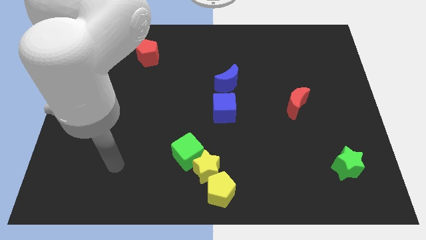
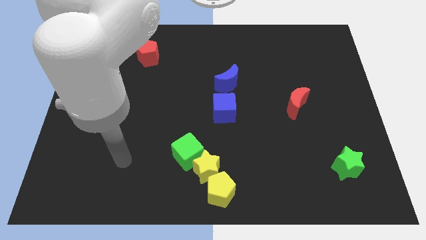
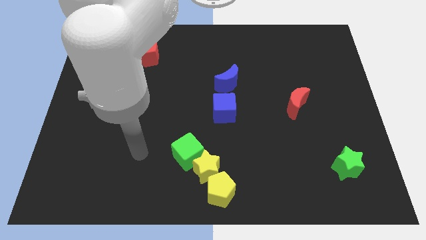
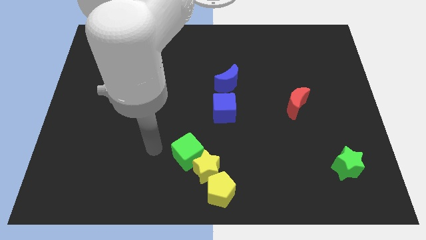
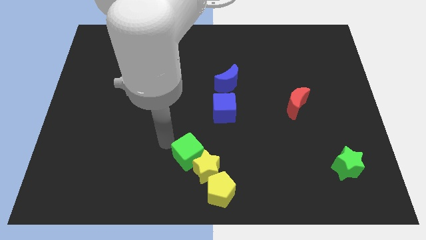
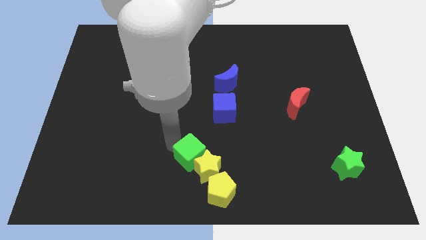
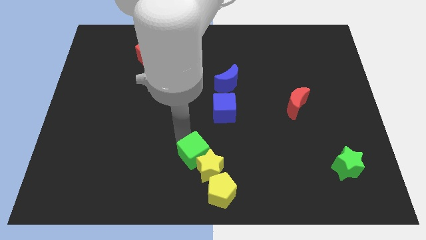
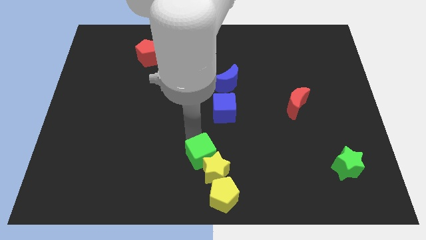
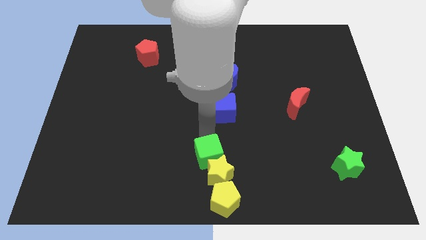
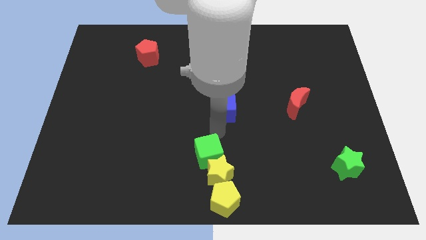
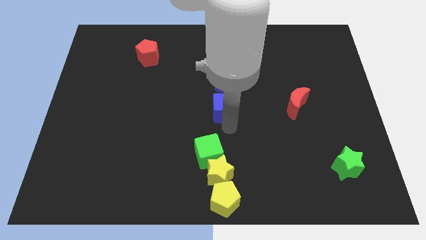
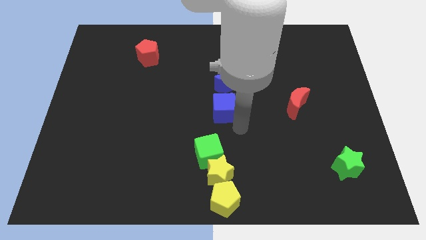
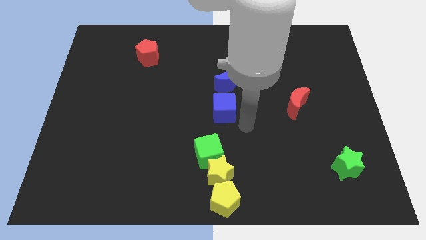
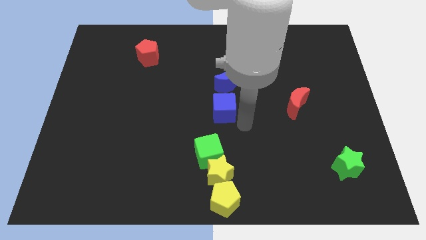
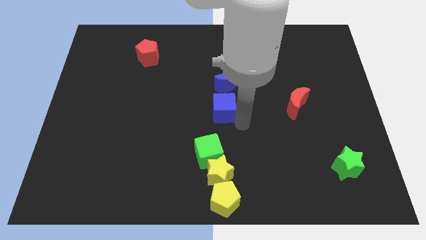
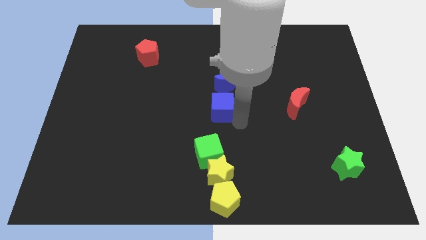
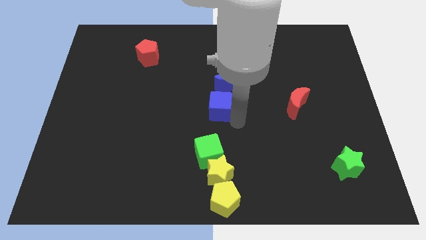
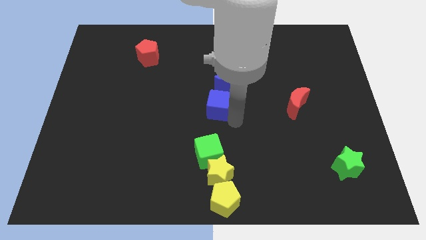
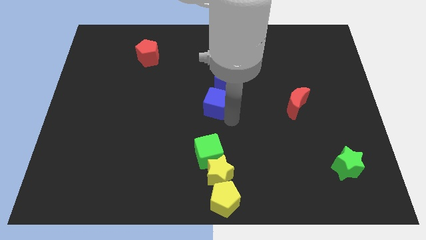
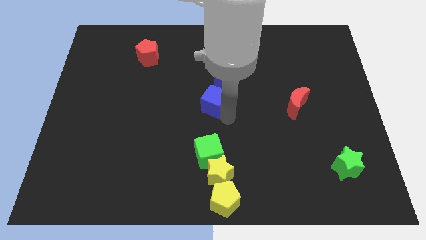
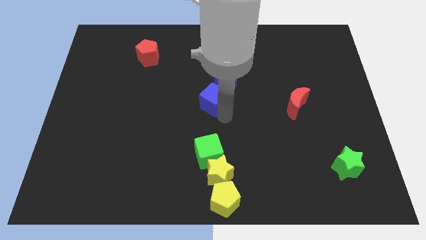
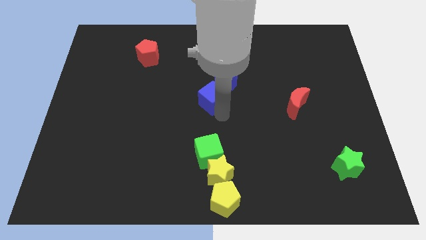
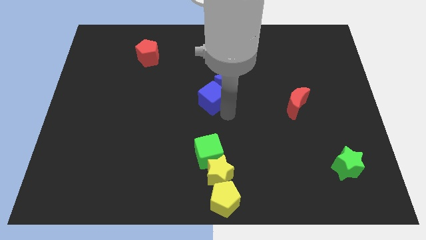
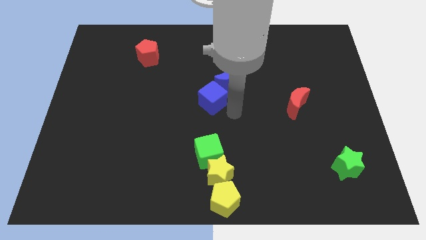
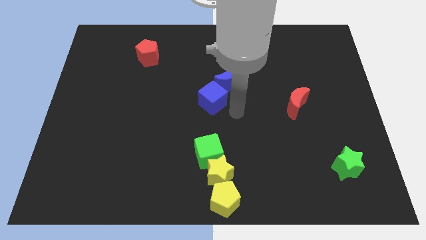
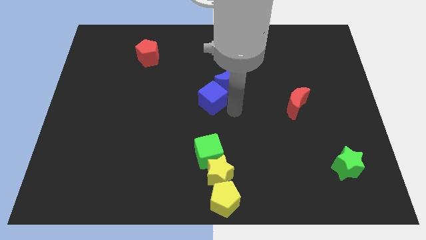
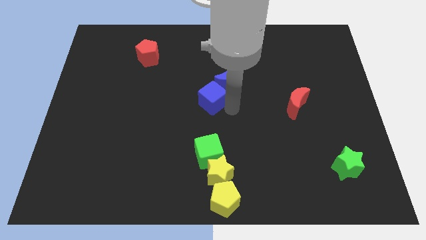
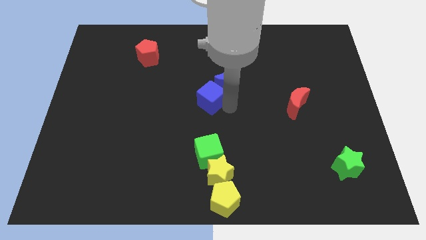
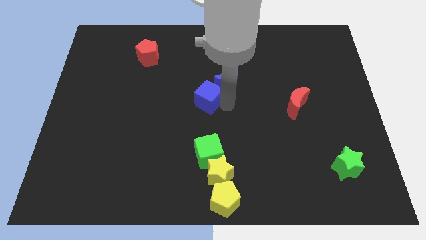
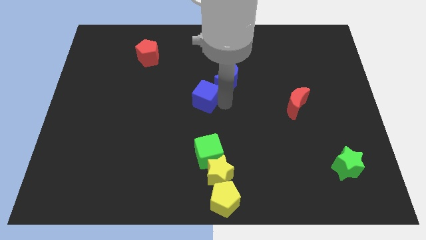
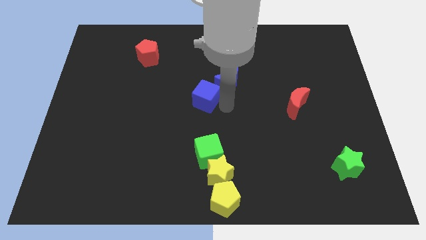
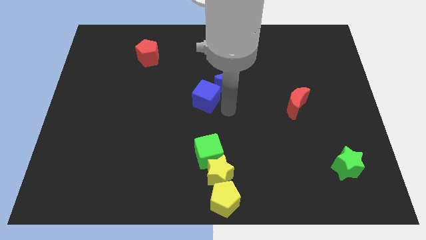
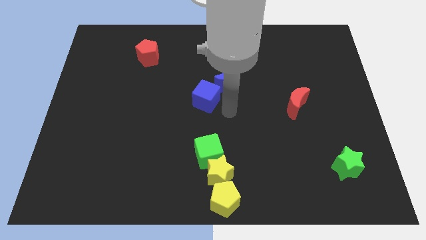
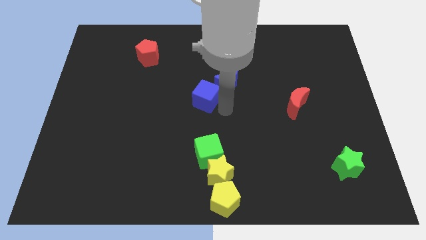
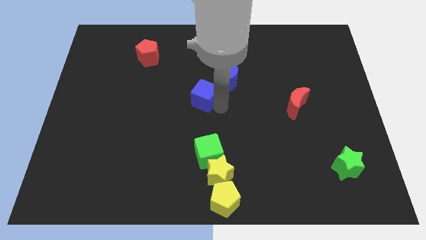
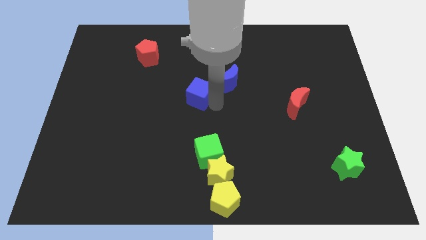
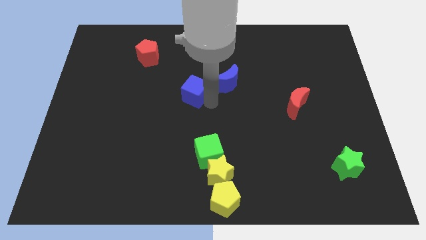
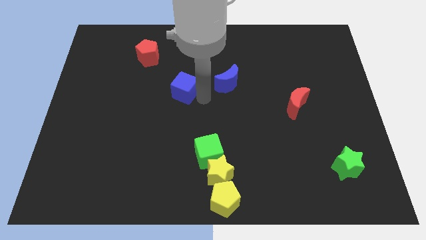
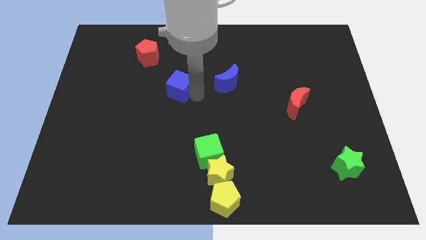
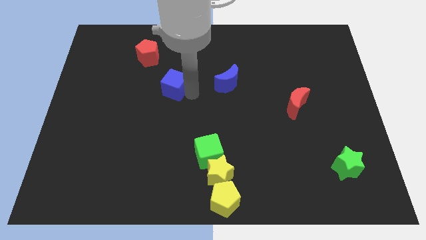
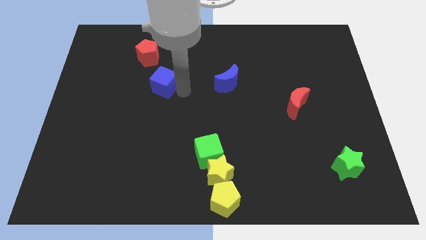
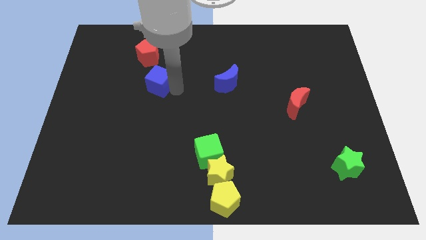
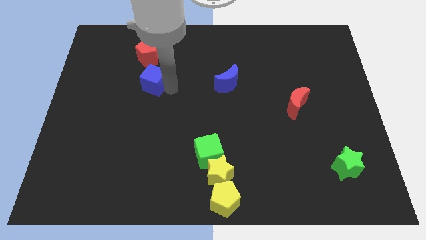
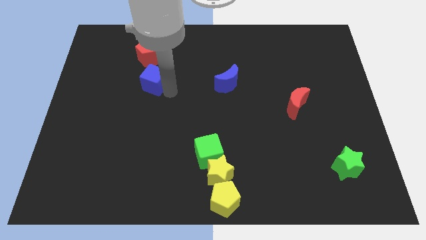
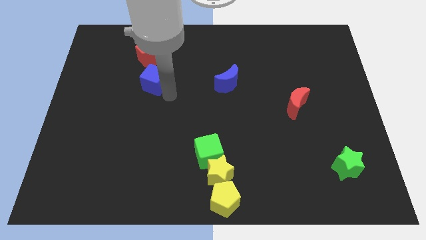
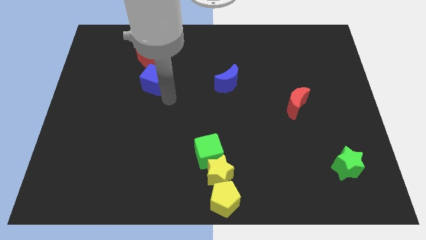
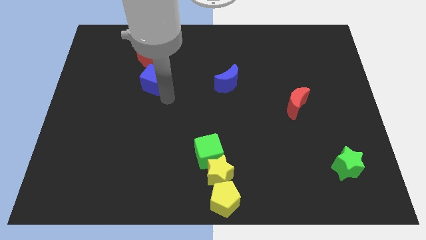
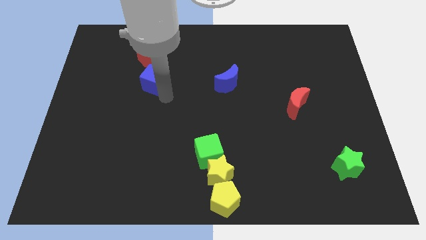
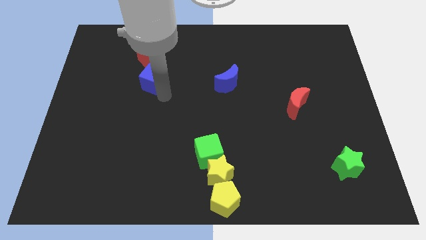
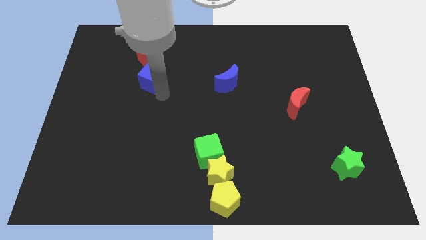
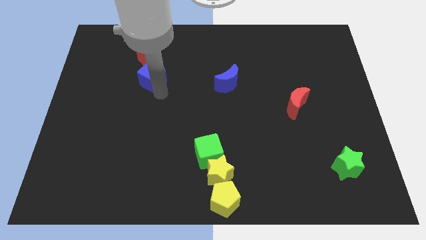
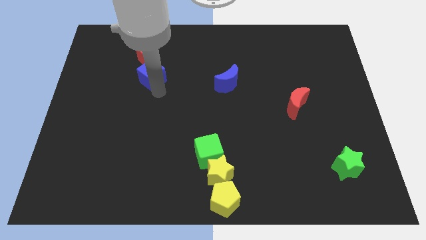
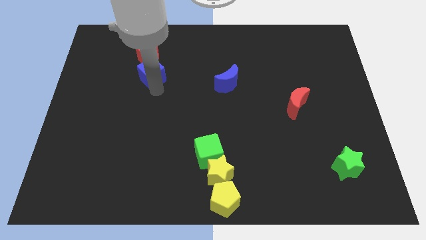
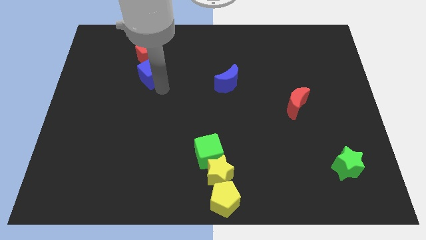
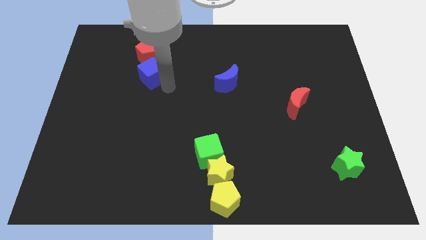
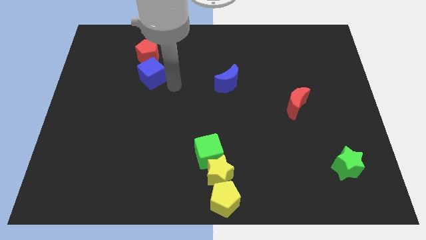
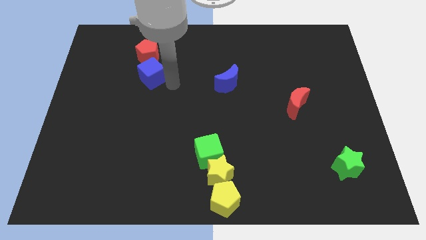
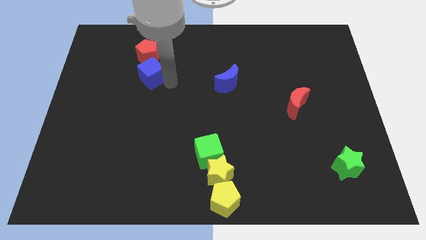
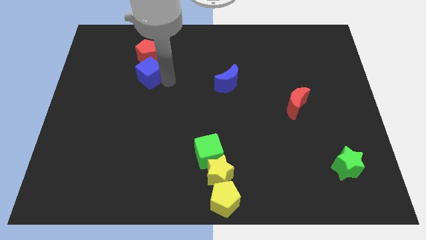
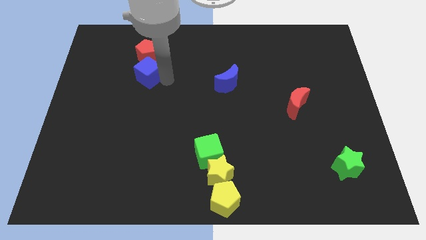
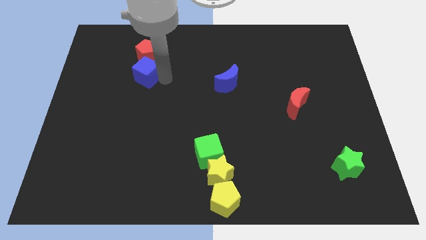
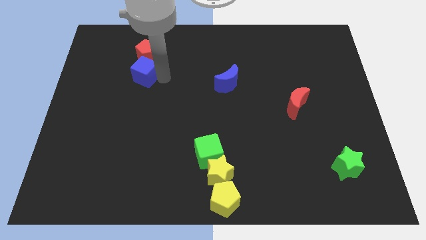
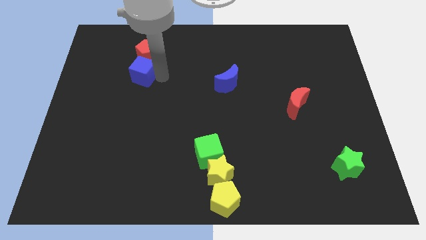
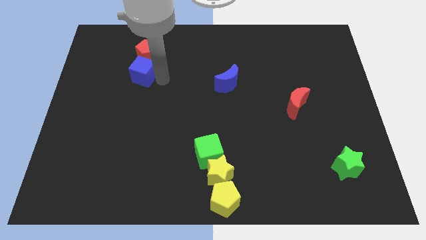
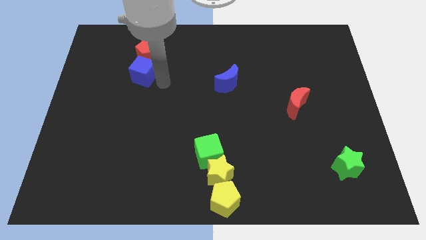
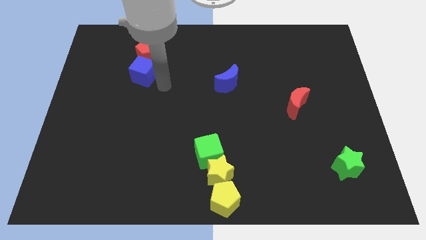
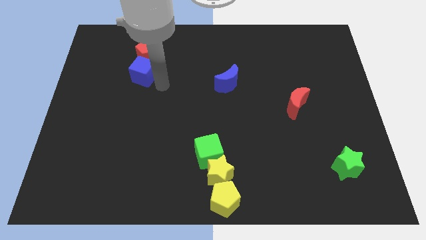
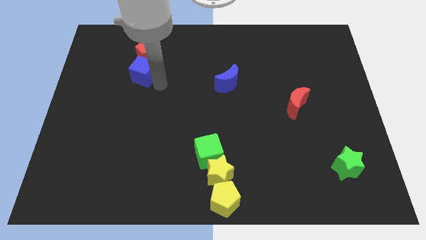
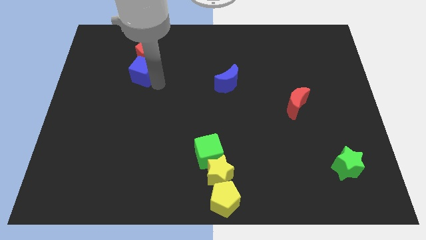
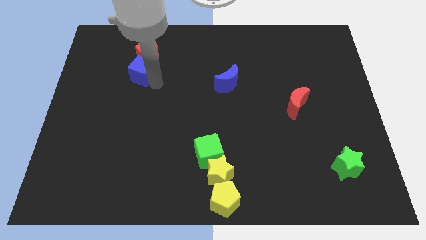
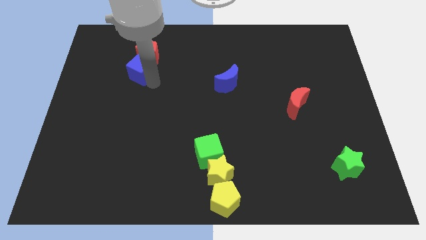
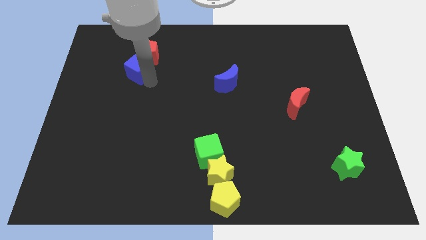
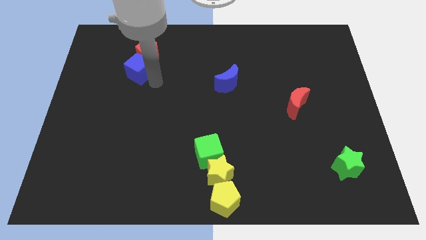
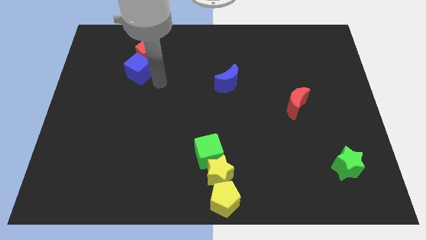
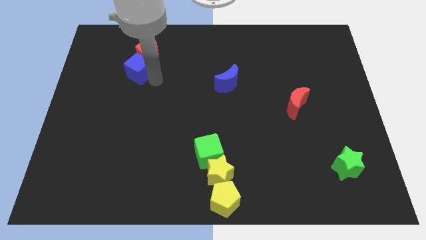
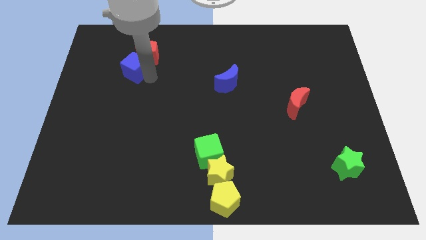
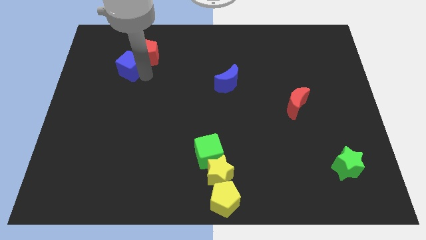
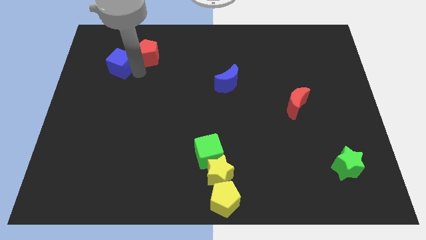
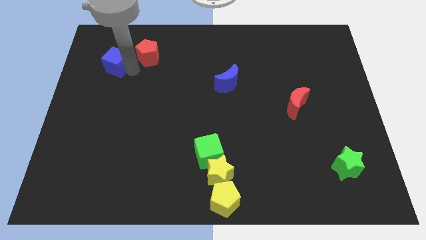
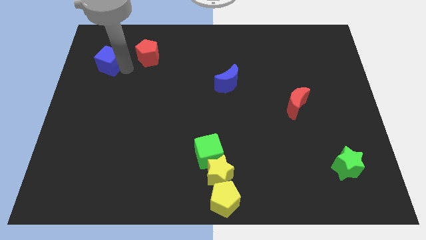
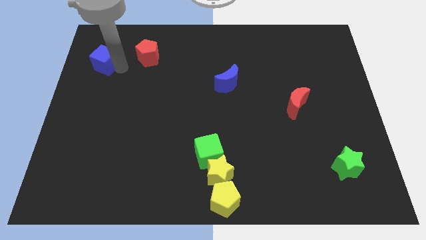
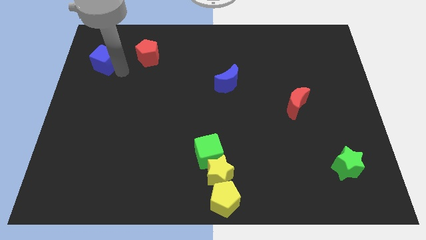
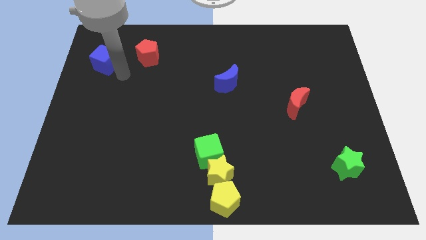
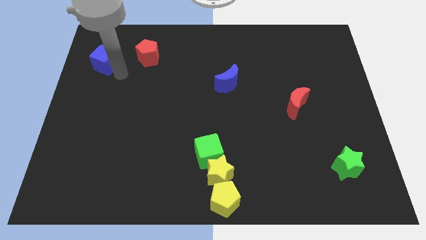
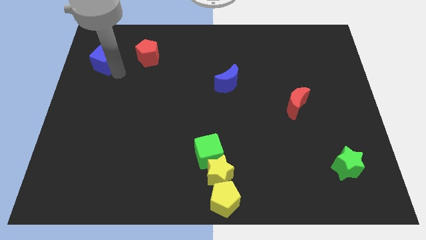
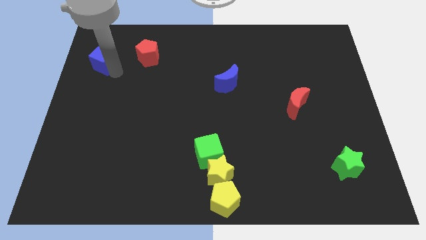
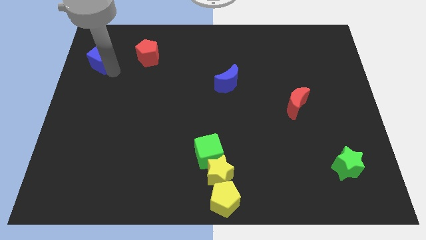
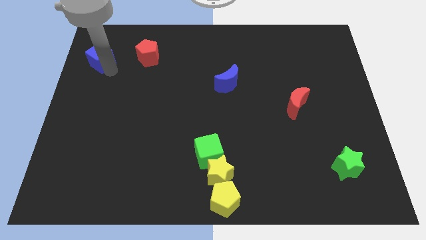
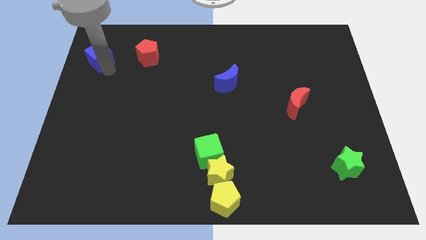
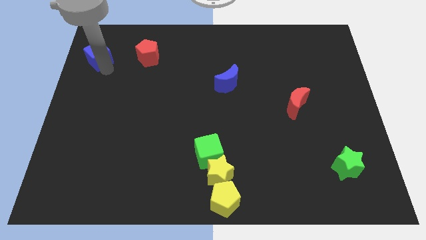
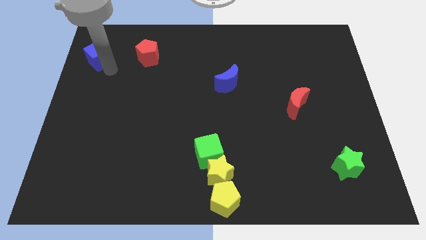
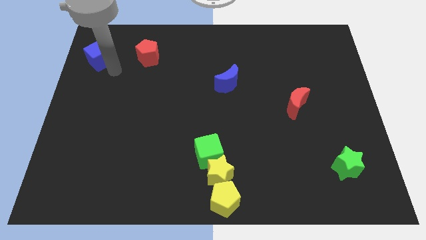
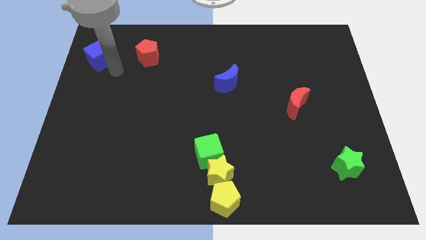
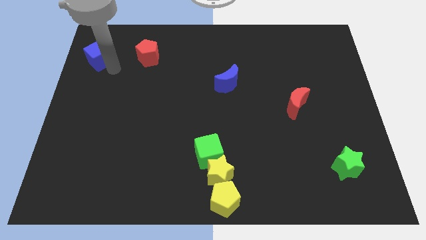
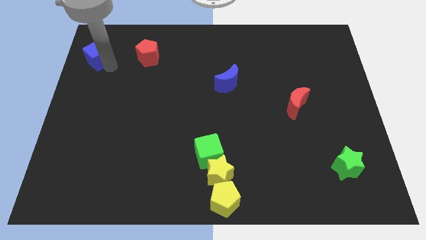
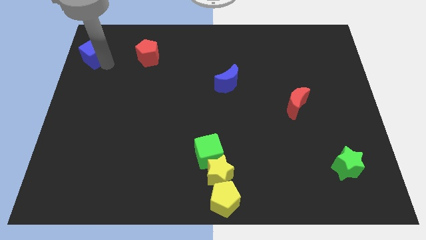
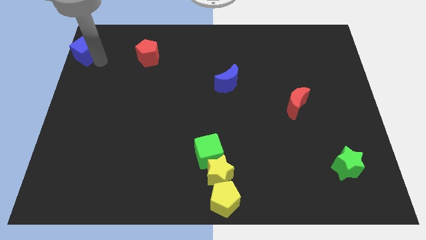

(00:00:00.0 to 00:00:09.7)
push the blue cube to the top left
